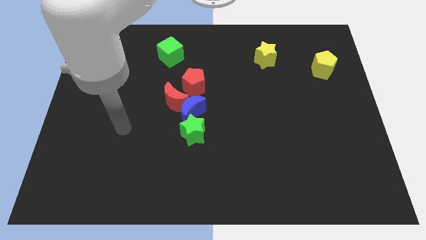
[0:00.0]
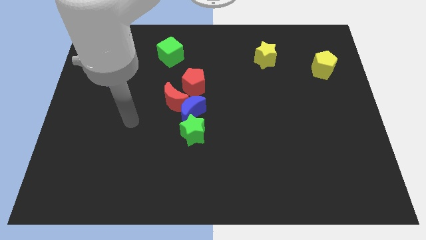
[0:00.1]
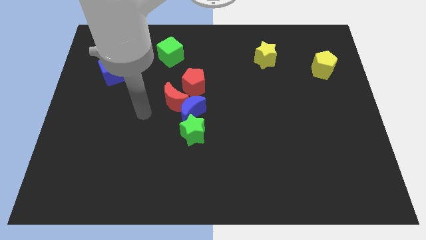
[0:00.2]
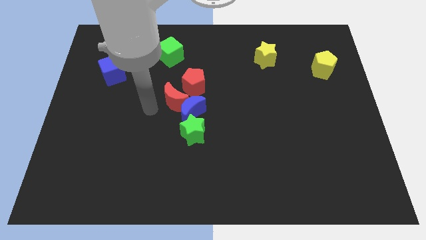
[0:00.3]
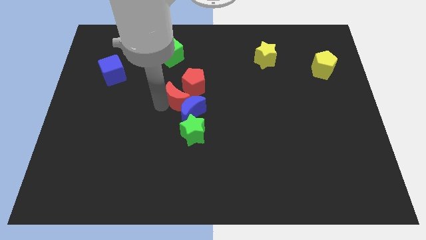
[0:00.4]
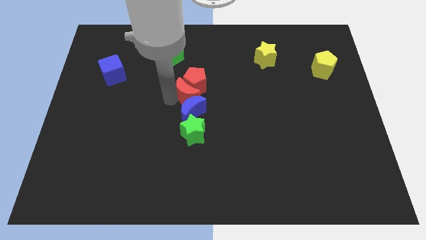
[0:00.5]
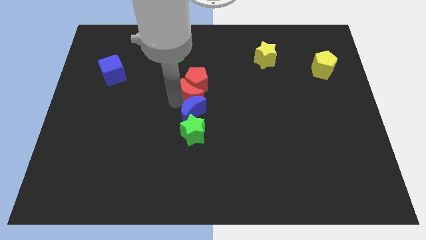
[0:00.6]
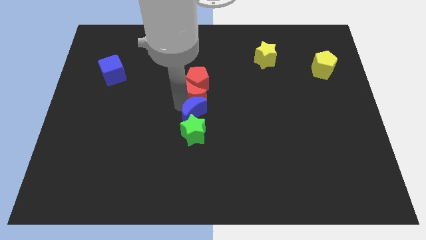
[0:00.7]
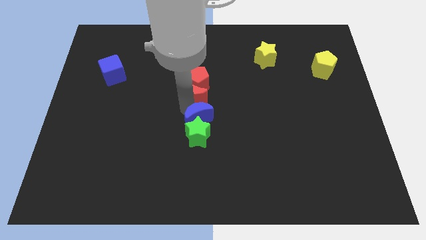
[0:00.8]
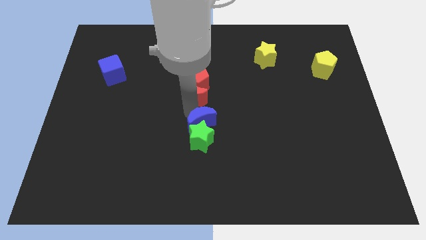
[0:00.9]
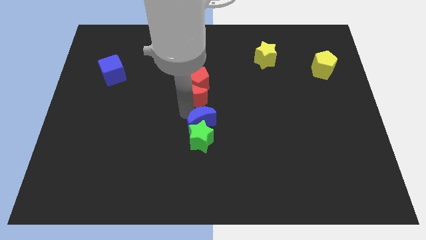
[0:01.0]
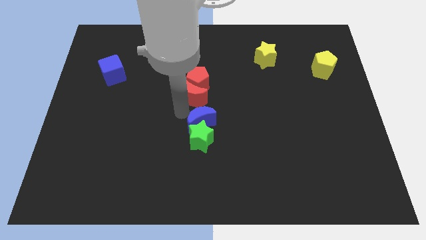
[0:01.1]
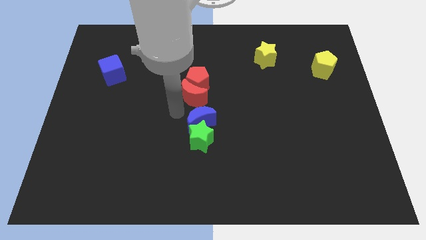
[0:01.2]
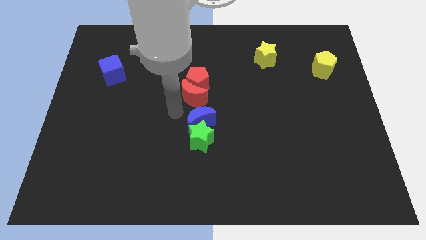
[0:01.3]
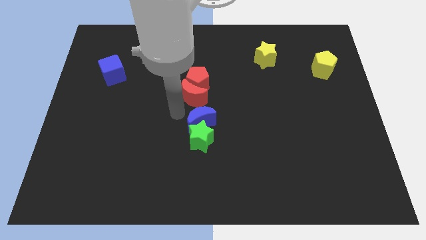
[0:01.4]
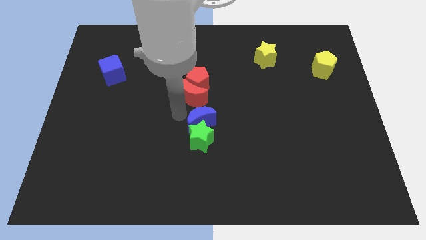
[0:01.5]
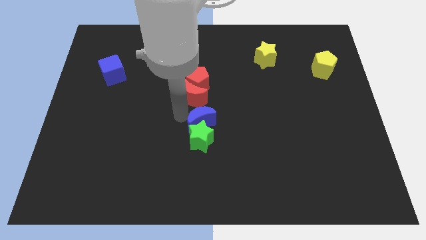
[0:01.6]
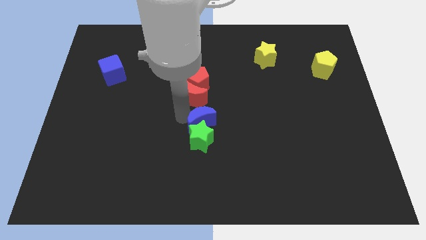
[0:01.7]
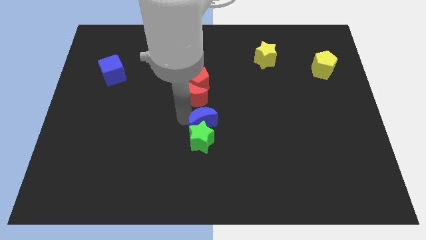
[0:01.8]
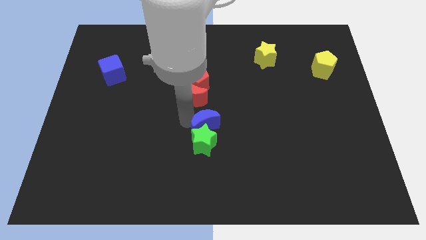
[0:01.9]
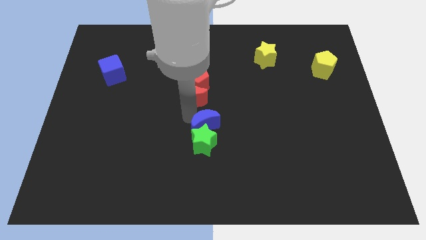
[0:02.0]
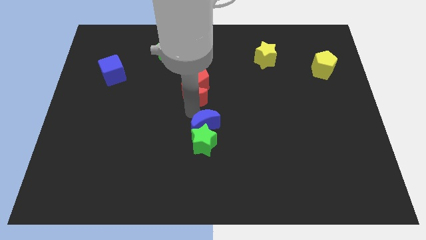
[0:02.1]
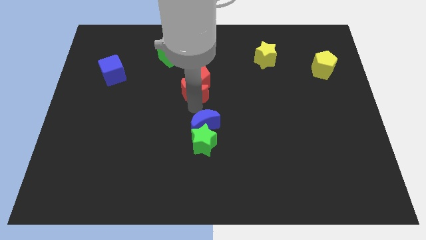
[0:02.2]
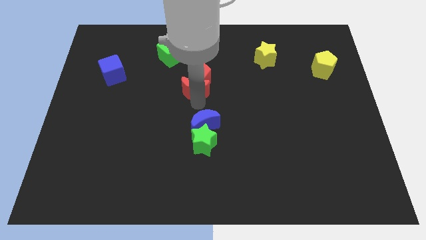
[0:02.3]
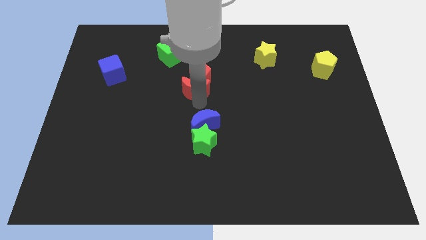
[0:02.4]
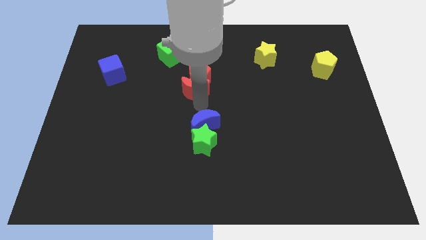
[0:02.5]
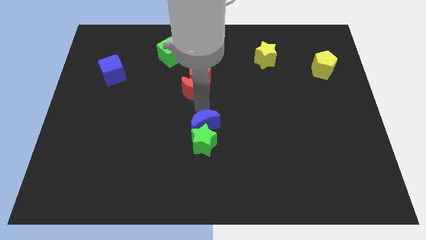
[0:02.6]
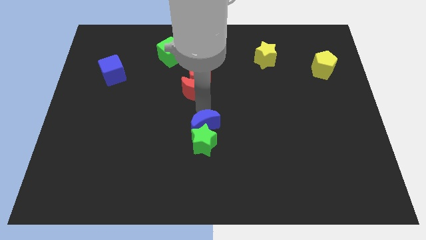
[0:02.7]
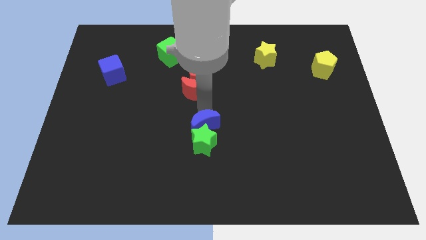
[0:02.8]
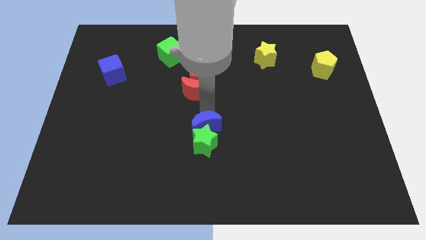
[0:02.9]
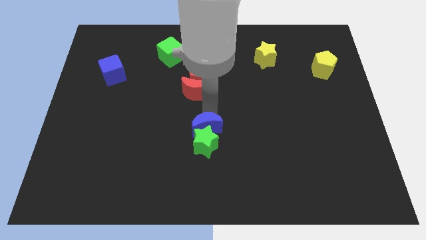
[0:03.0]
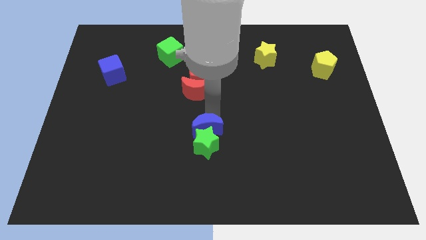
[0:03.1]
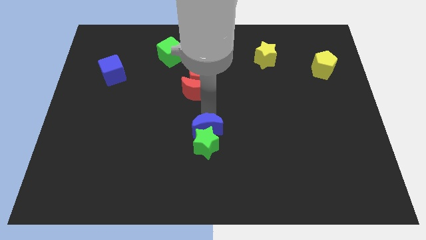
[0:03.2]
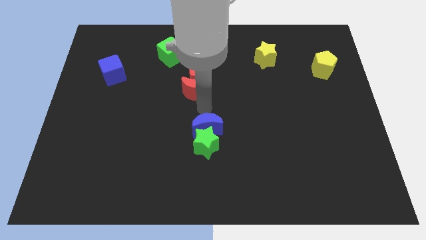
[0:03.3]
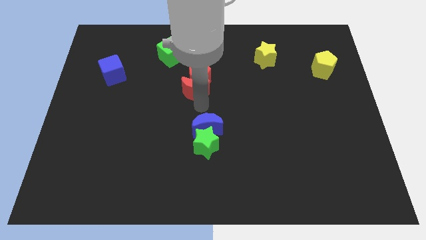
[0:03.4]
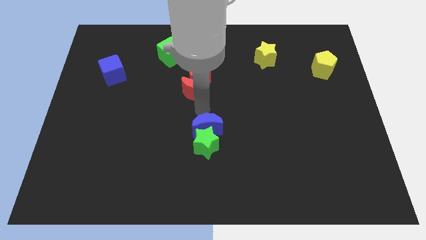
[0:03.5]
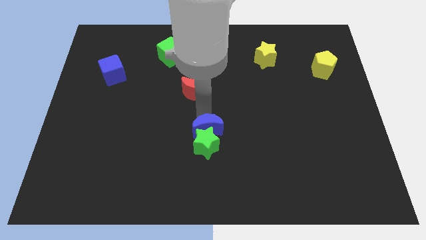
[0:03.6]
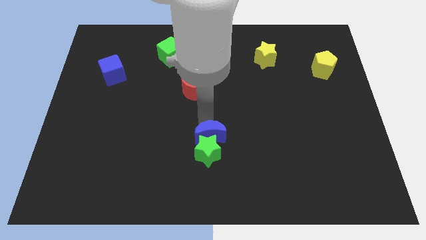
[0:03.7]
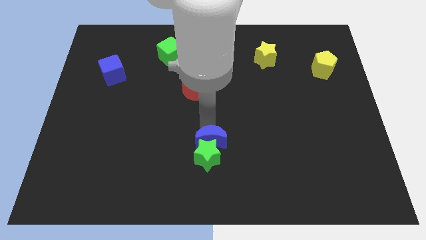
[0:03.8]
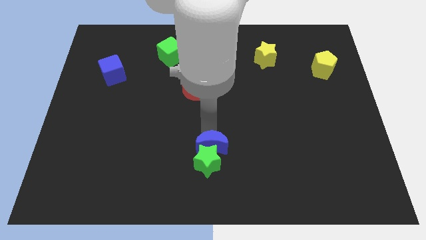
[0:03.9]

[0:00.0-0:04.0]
pull the blue moon apart from the group of blocks

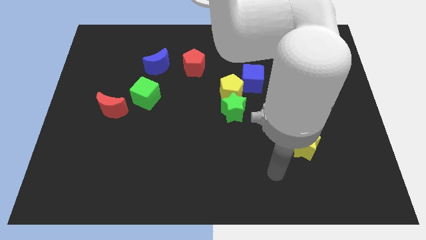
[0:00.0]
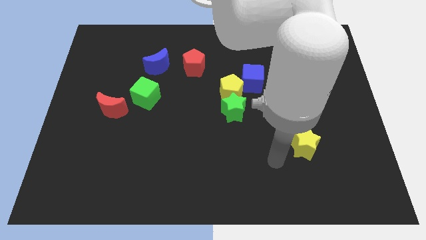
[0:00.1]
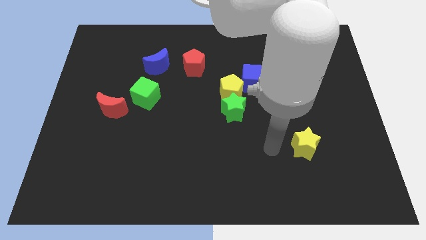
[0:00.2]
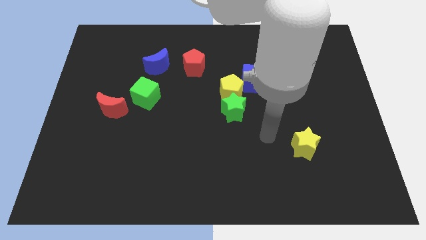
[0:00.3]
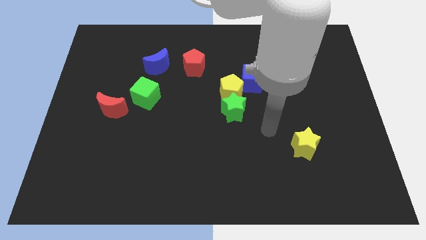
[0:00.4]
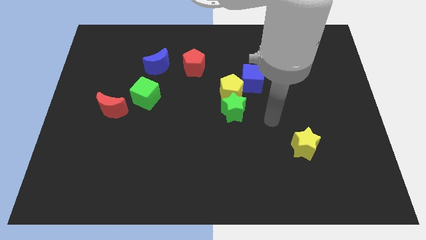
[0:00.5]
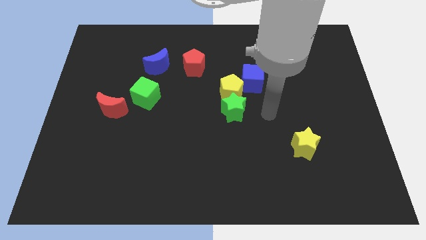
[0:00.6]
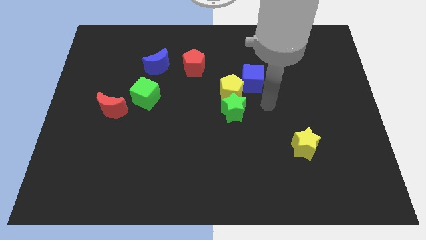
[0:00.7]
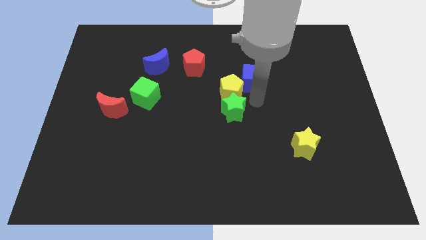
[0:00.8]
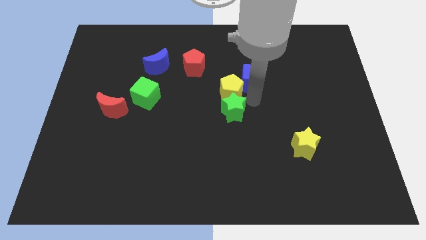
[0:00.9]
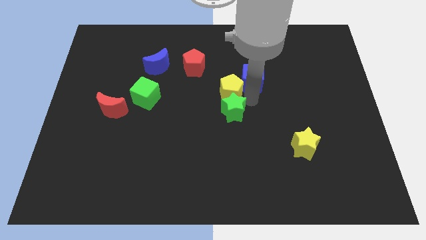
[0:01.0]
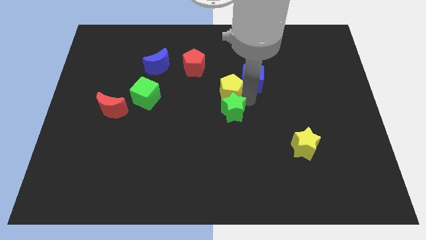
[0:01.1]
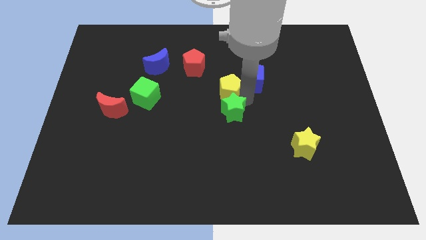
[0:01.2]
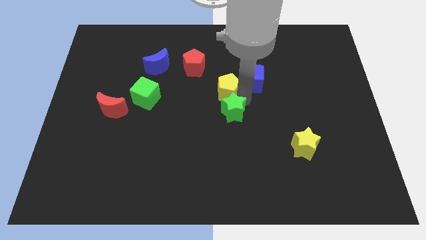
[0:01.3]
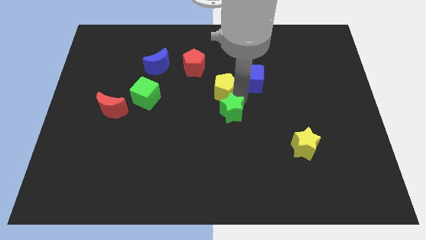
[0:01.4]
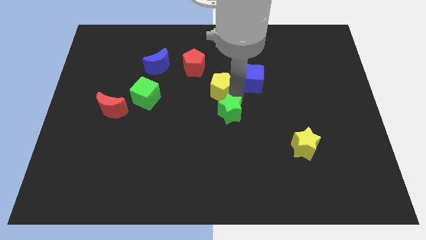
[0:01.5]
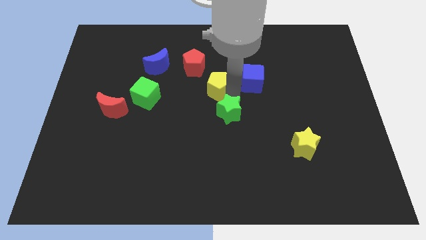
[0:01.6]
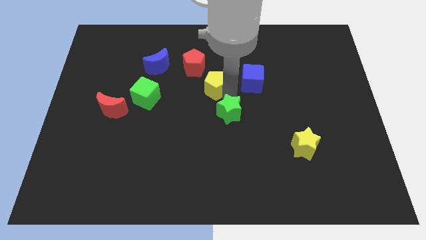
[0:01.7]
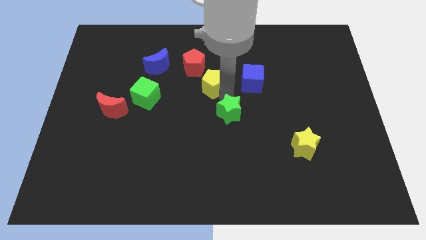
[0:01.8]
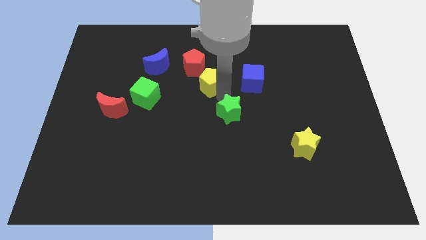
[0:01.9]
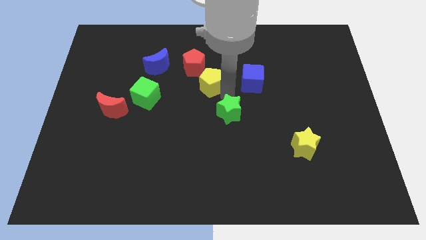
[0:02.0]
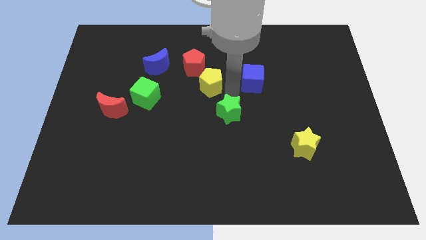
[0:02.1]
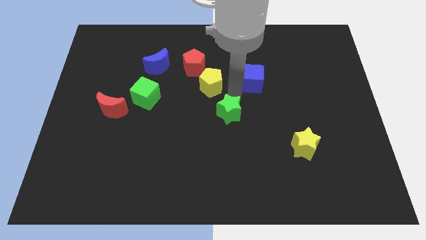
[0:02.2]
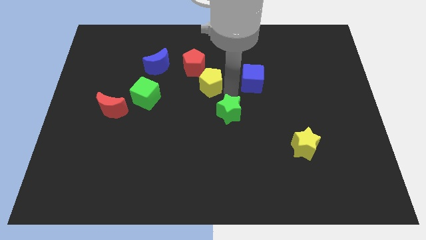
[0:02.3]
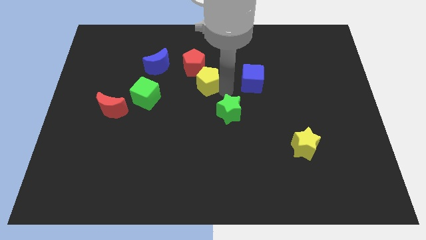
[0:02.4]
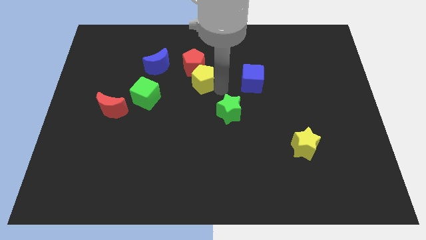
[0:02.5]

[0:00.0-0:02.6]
pull the yellow pentagon apart from the green star and blue cube

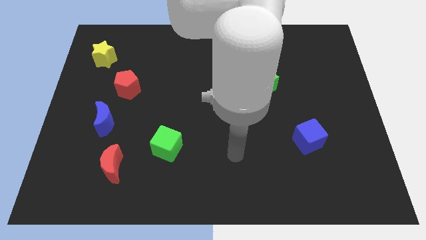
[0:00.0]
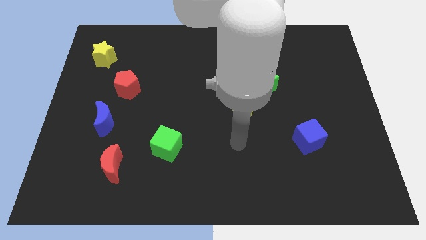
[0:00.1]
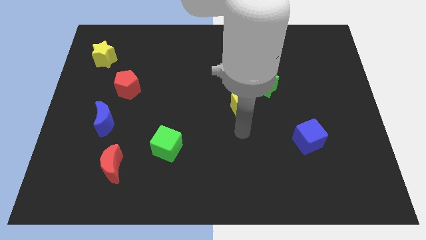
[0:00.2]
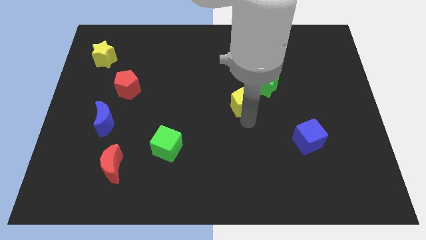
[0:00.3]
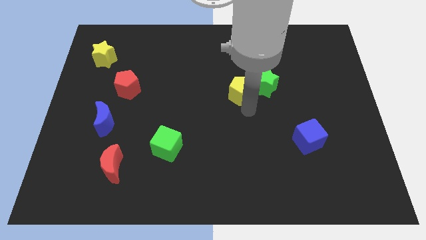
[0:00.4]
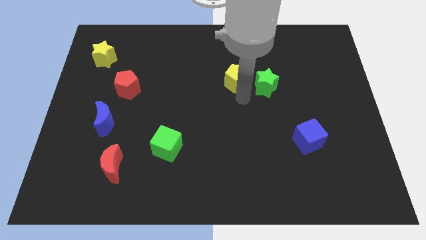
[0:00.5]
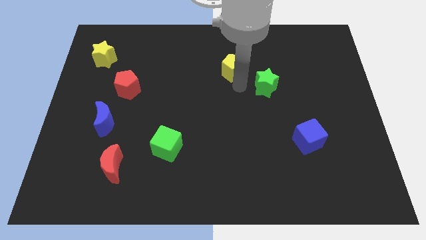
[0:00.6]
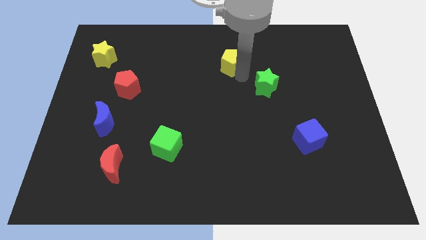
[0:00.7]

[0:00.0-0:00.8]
move the green star away from the yellow pentagon

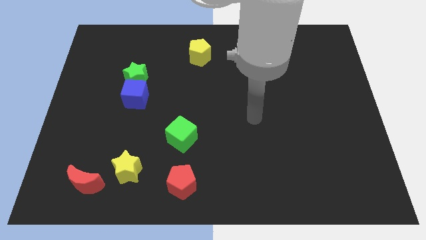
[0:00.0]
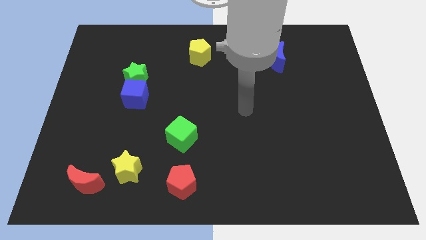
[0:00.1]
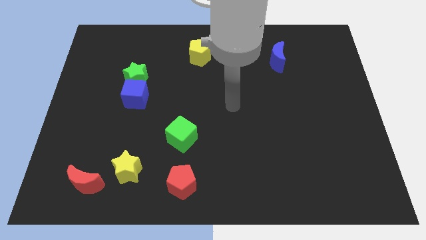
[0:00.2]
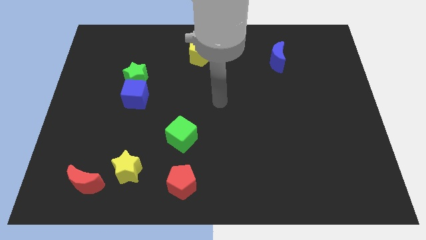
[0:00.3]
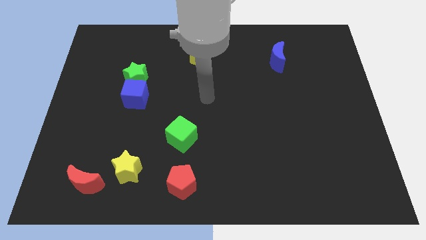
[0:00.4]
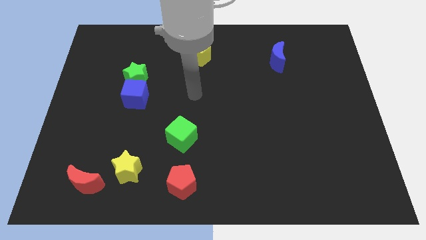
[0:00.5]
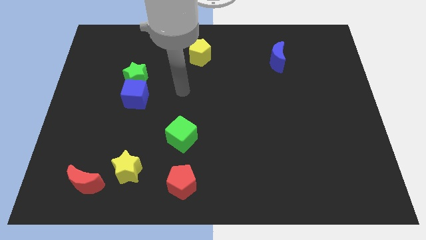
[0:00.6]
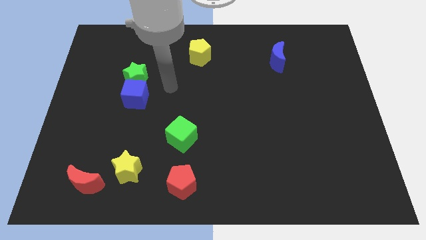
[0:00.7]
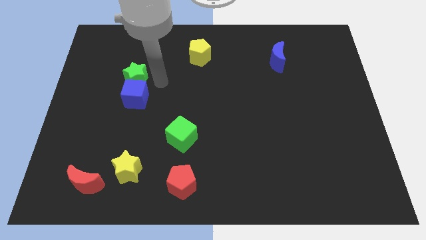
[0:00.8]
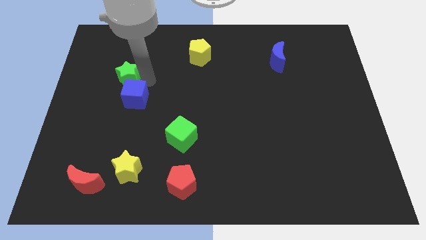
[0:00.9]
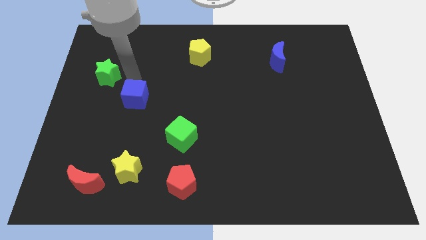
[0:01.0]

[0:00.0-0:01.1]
separate the blue cube from the green star

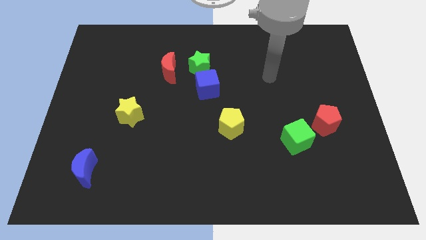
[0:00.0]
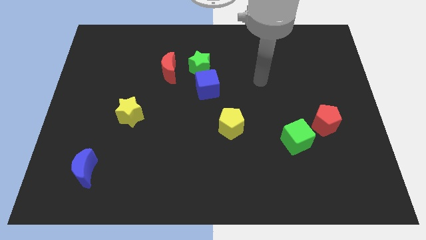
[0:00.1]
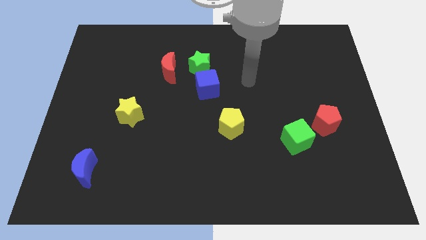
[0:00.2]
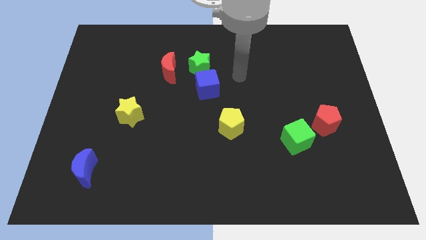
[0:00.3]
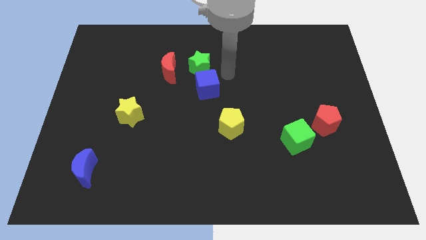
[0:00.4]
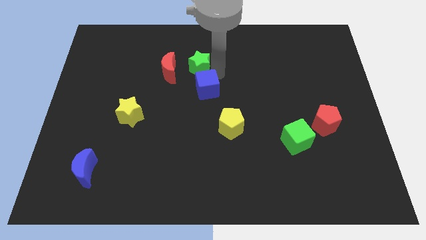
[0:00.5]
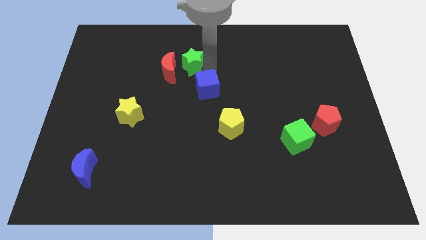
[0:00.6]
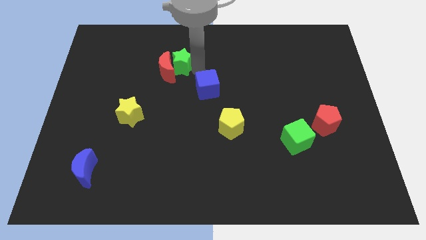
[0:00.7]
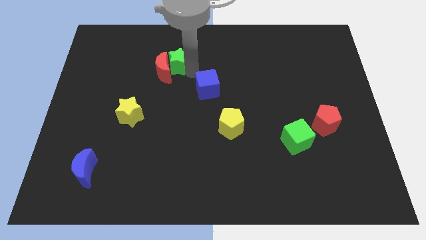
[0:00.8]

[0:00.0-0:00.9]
move the blue cube away from the green star

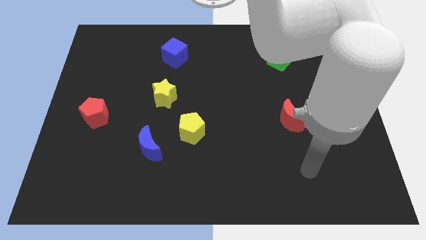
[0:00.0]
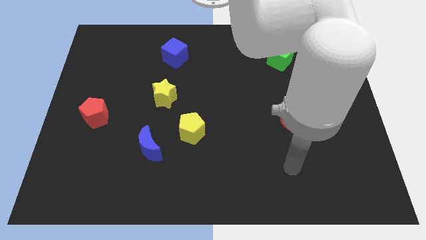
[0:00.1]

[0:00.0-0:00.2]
separate the blue moon from the yellow pentagon
